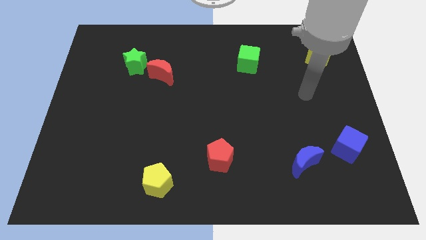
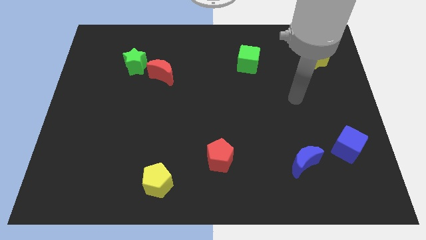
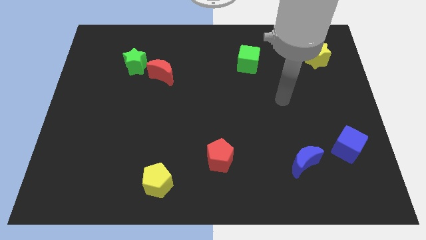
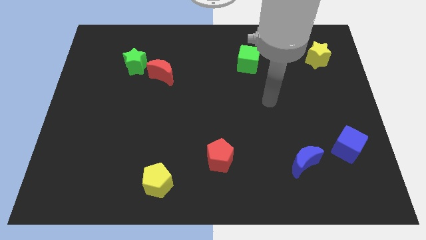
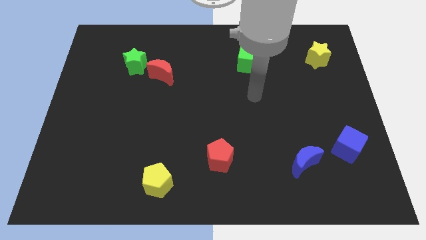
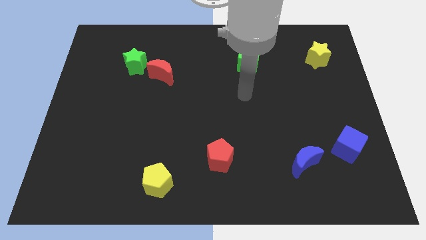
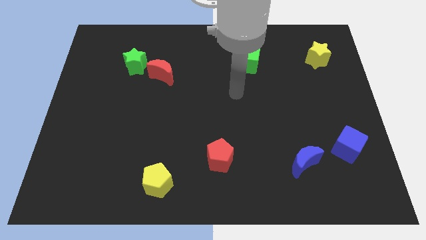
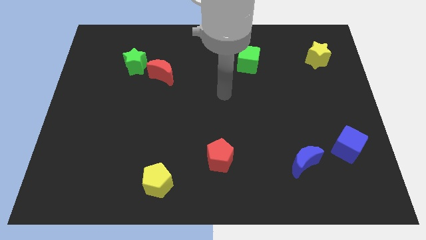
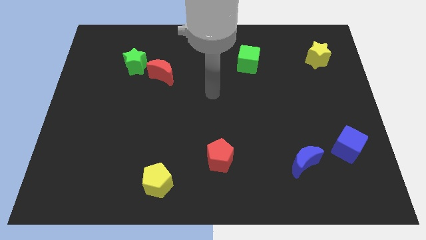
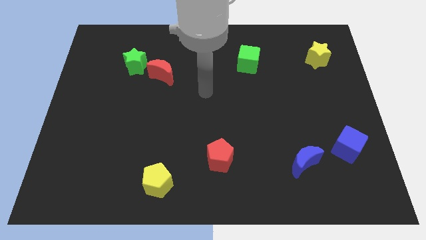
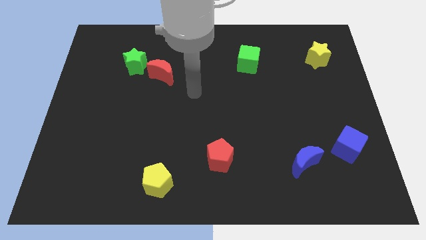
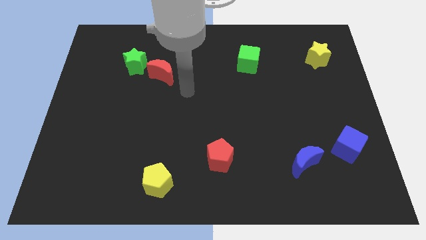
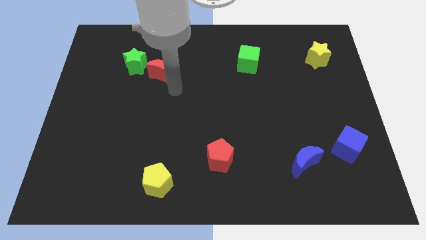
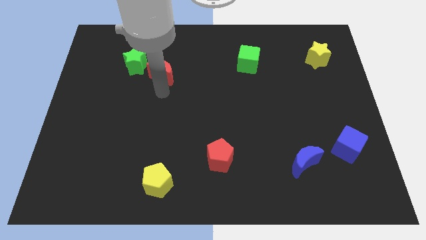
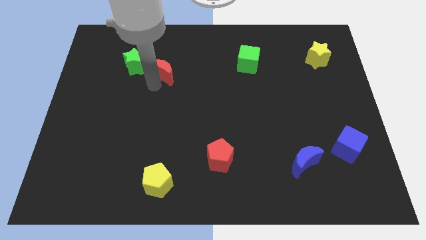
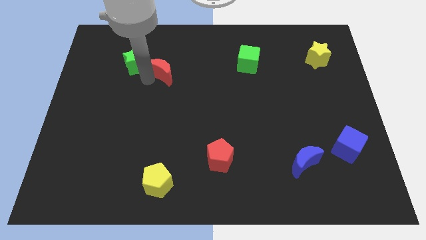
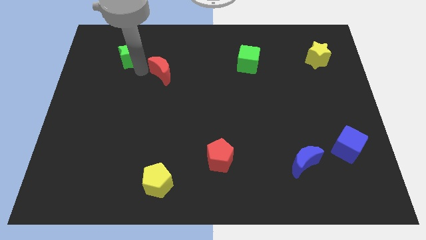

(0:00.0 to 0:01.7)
pull the red moon apart from the green star

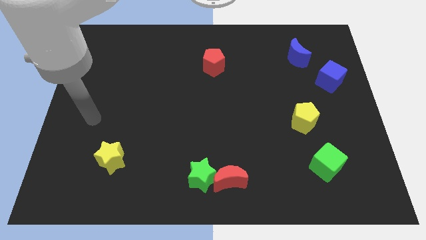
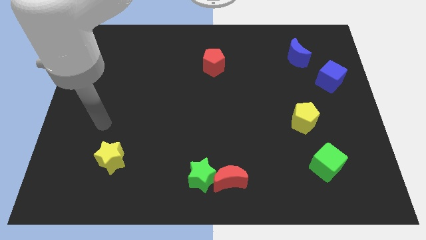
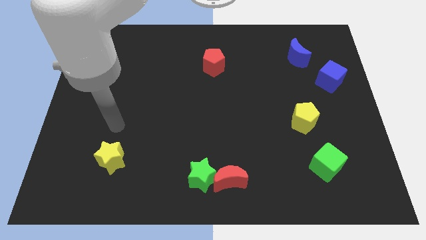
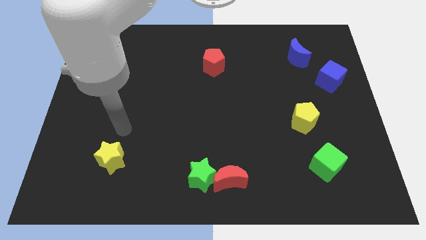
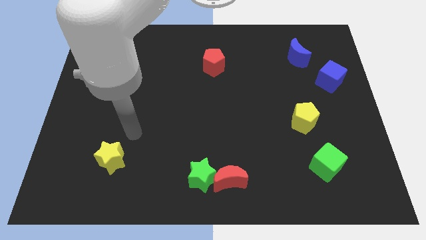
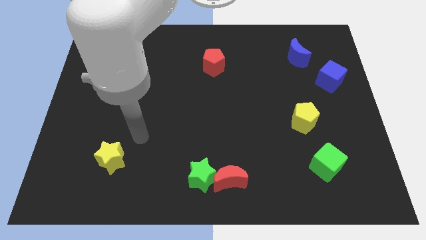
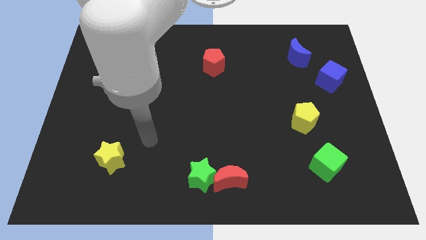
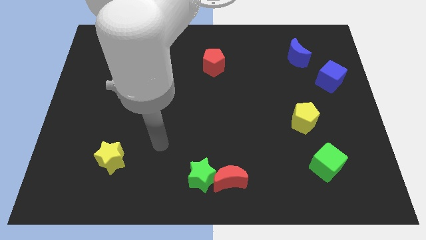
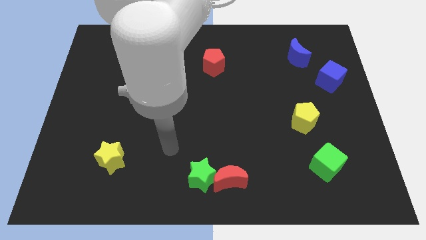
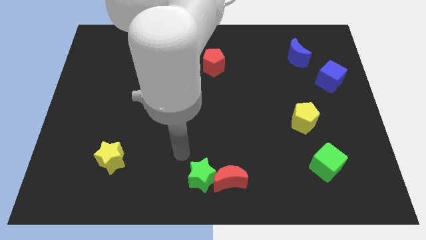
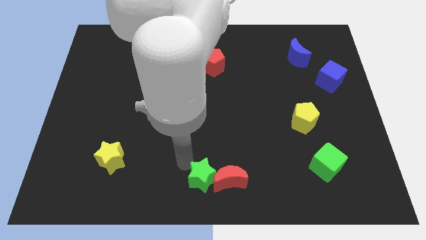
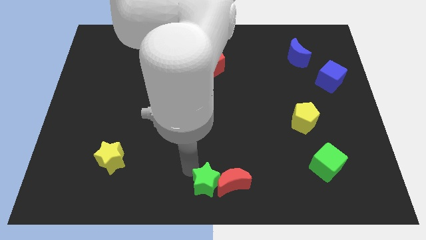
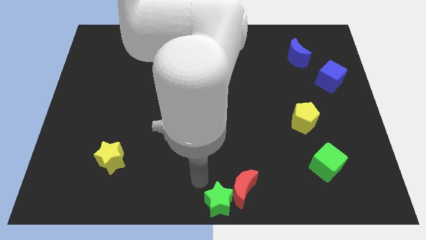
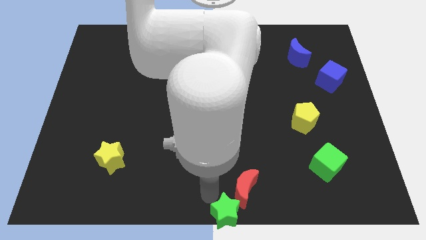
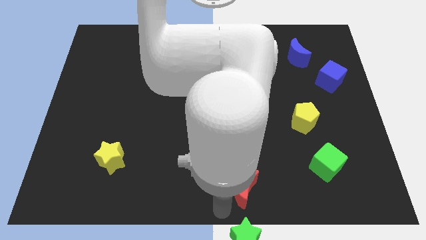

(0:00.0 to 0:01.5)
separate the red moon from the green star

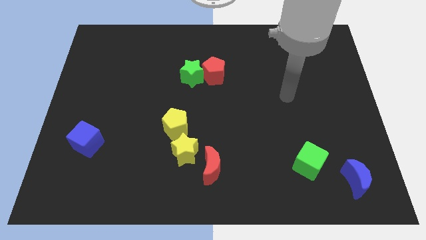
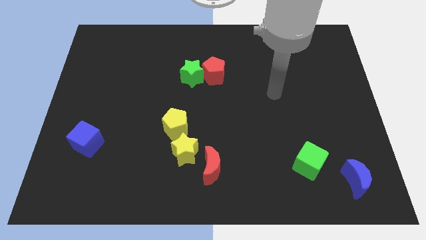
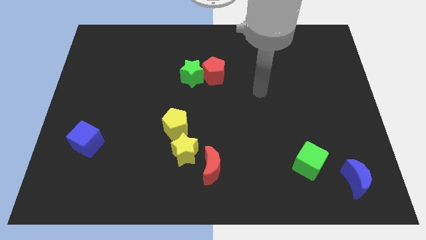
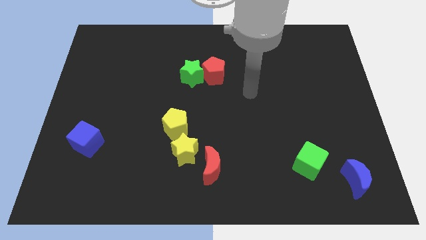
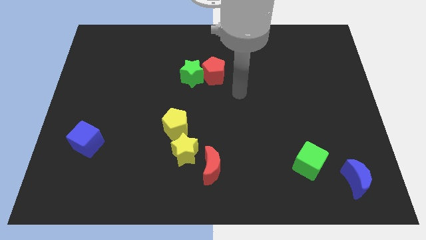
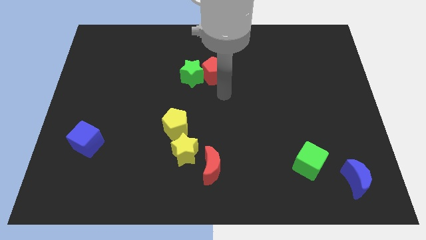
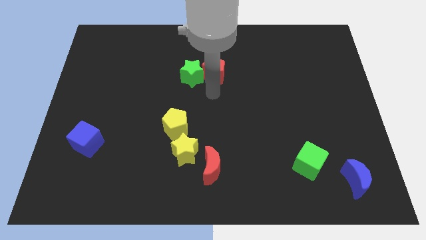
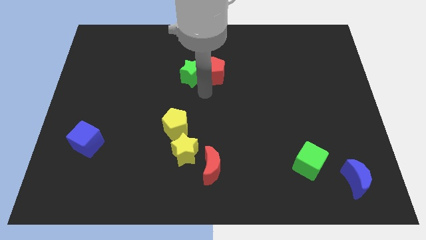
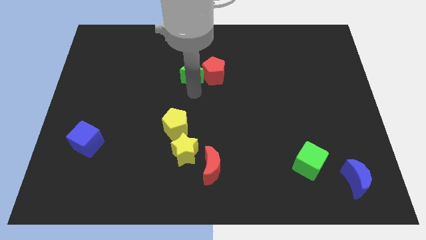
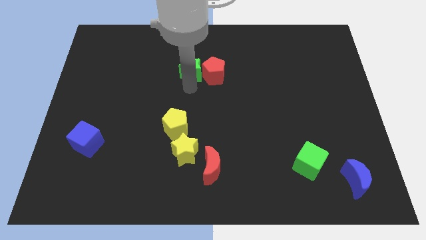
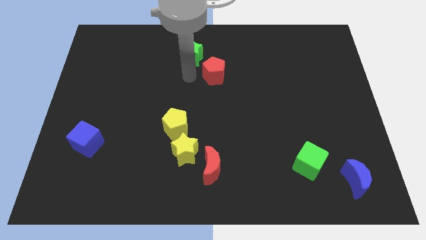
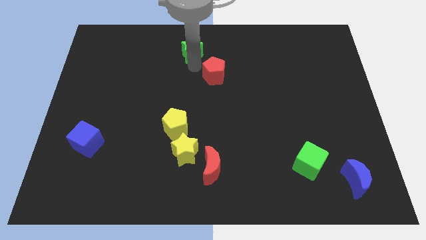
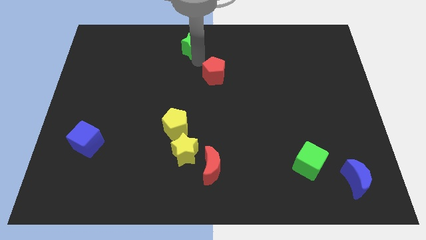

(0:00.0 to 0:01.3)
separate the red pentagon from the green star

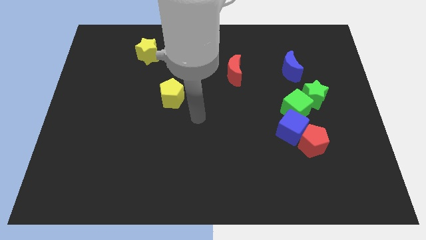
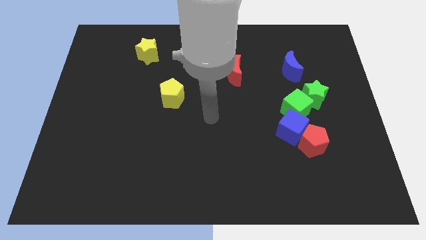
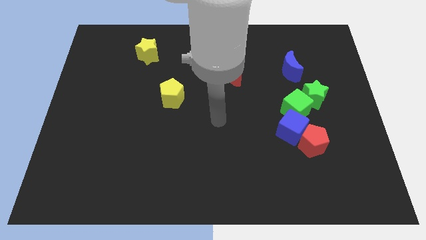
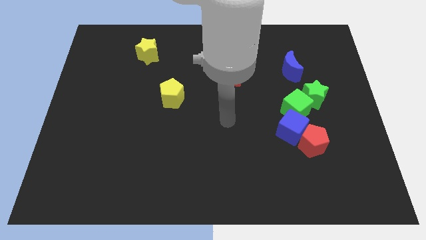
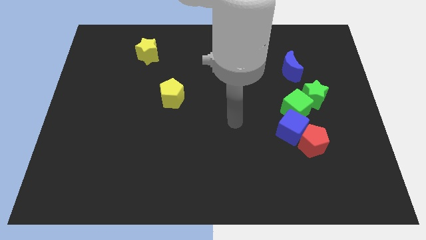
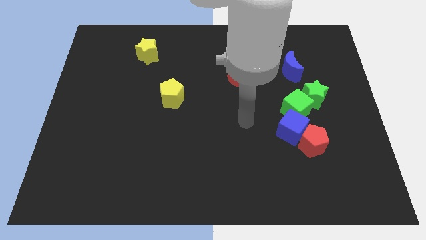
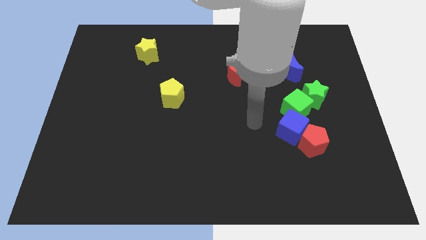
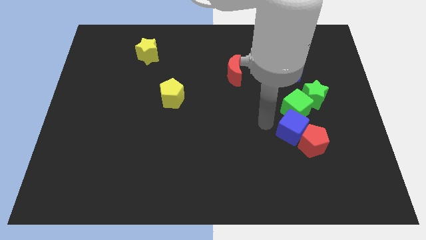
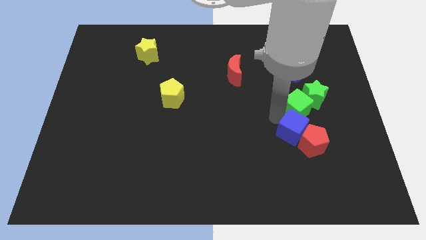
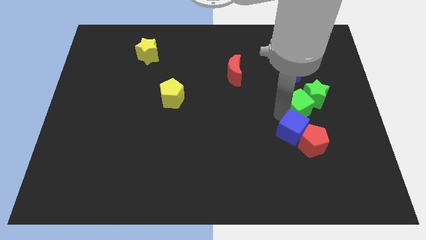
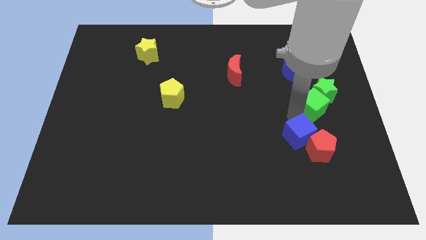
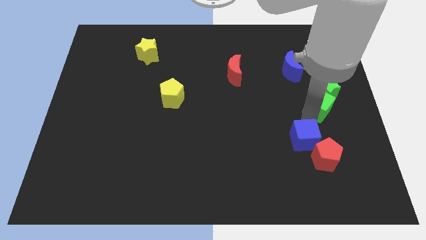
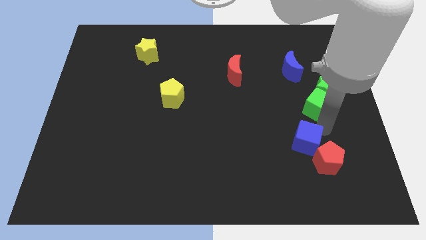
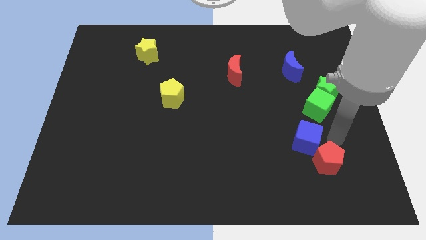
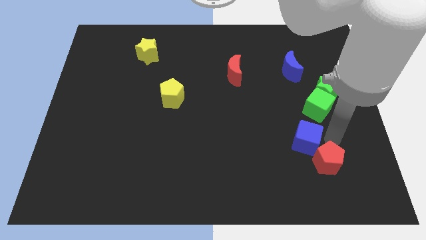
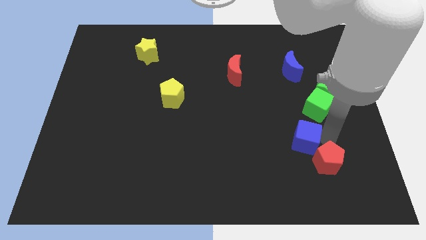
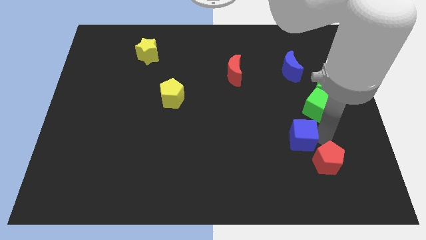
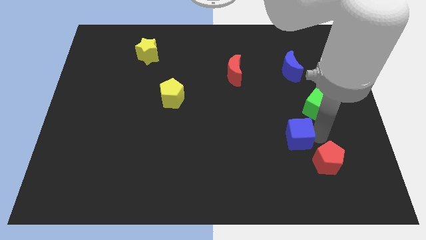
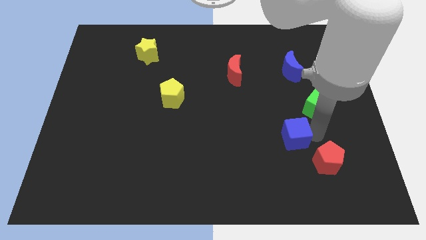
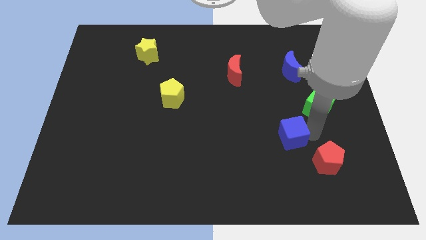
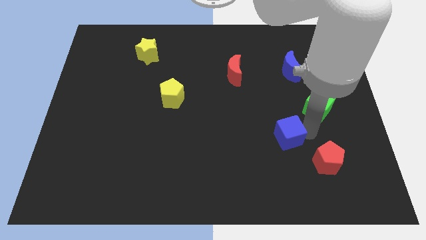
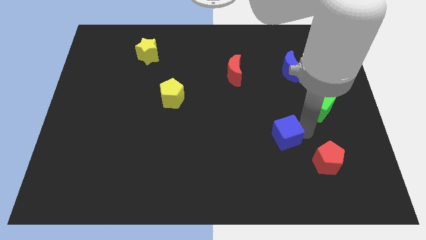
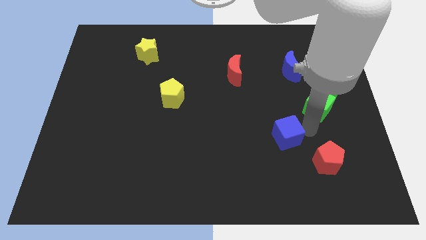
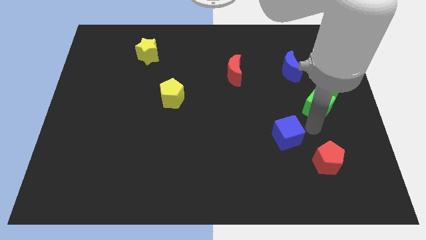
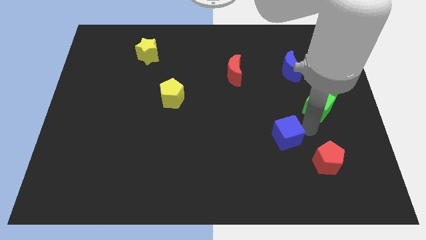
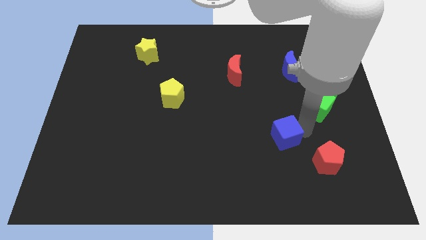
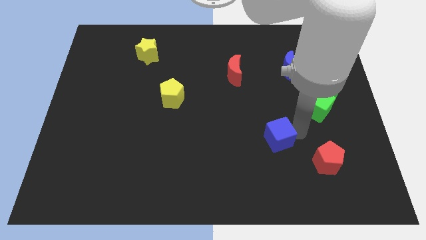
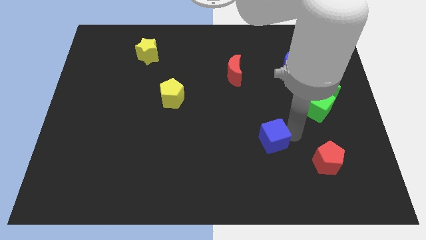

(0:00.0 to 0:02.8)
pull the blue cube apart from the red pentagon and green cube

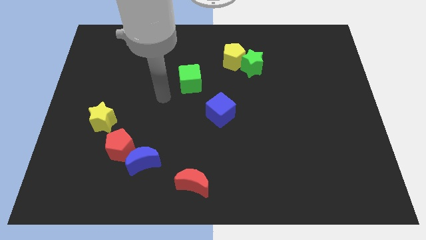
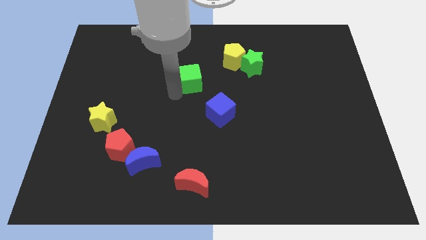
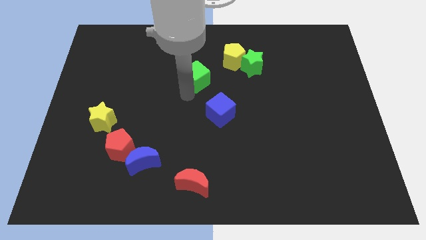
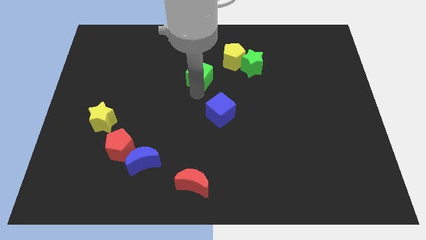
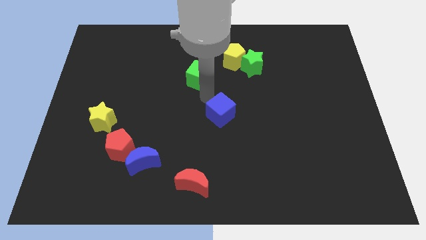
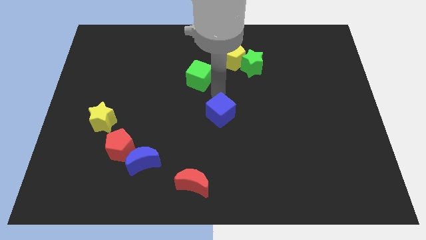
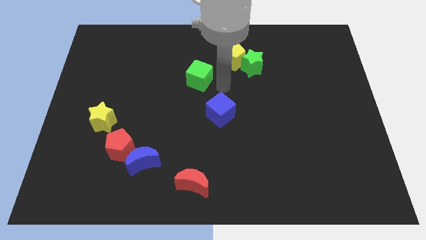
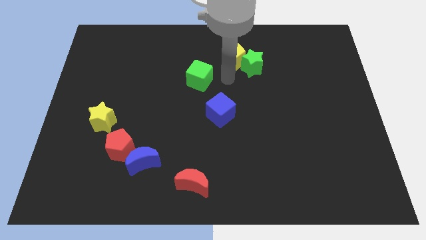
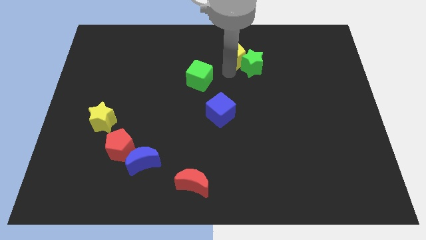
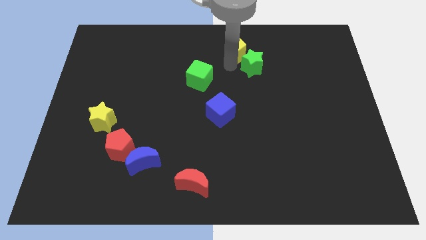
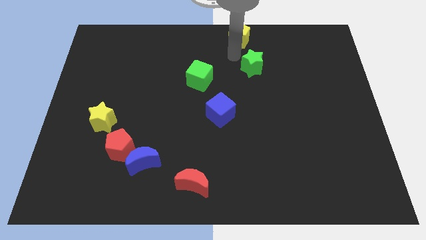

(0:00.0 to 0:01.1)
move the green star away from the yellow pentagon

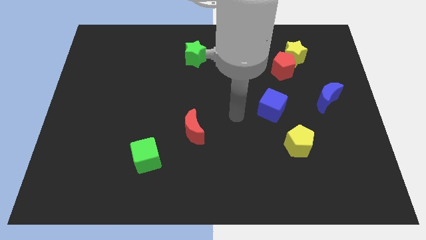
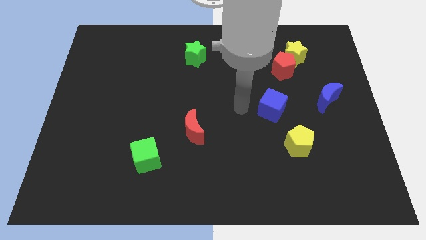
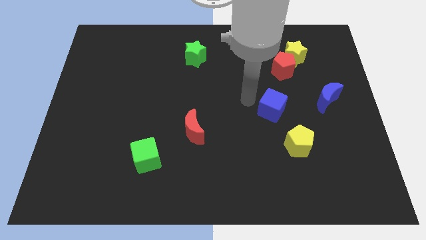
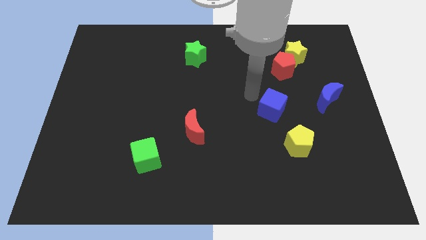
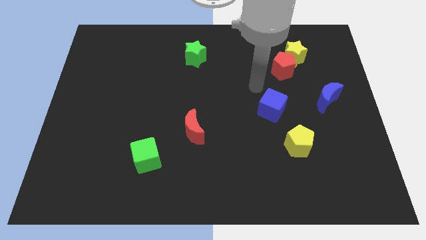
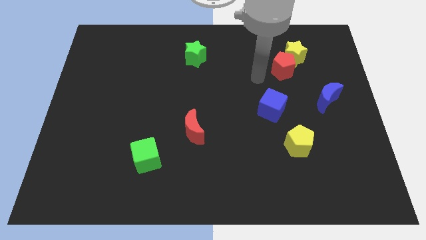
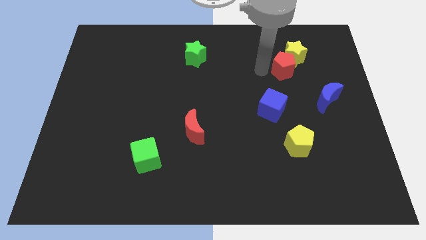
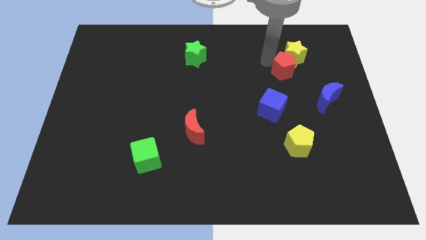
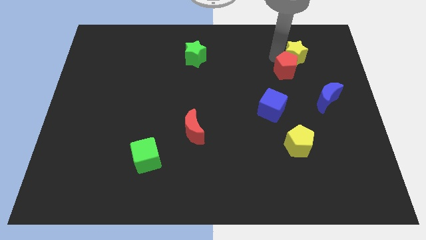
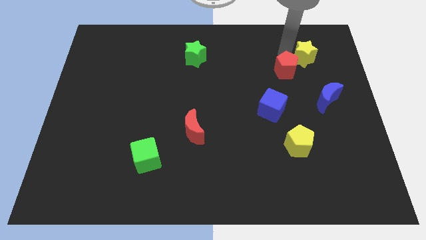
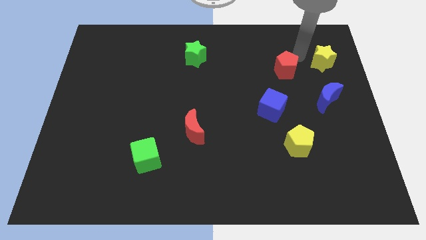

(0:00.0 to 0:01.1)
move the red pentagon away from the yellow star
